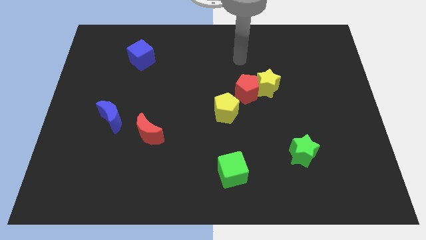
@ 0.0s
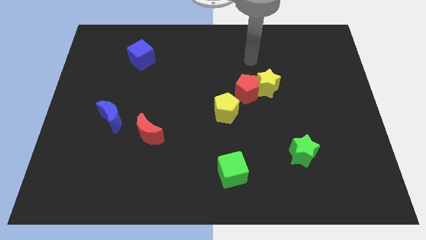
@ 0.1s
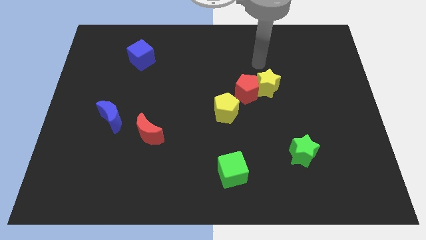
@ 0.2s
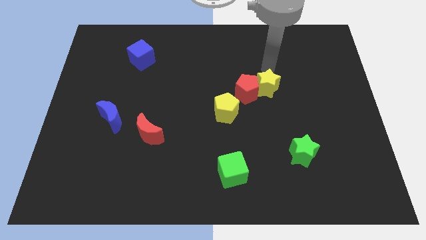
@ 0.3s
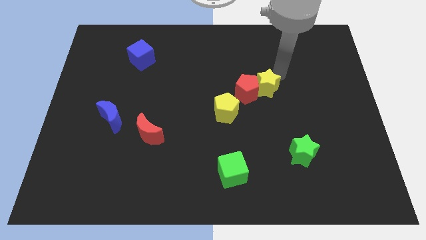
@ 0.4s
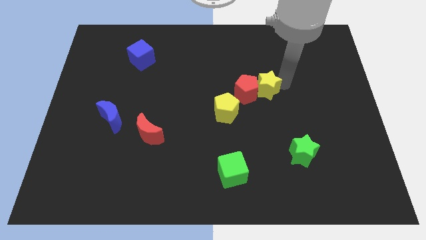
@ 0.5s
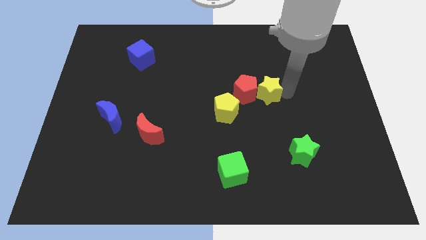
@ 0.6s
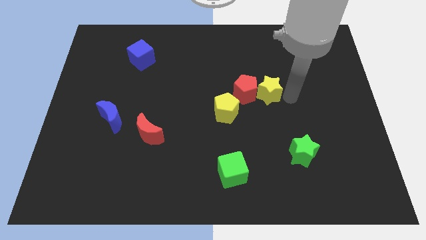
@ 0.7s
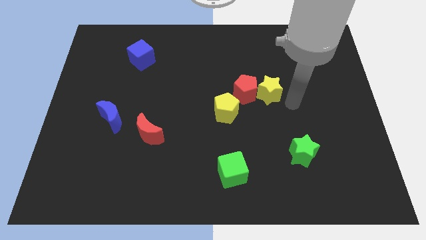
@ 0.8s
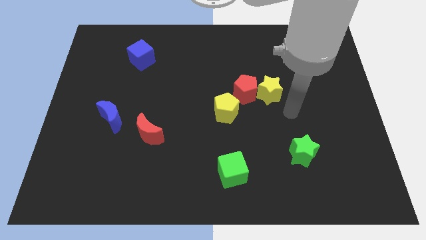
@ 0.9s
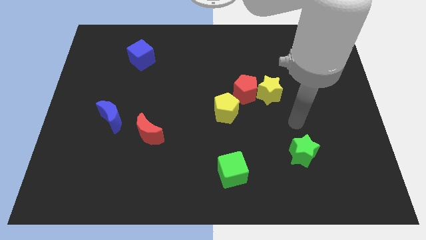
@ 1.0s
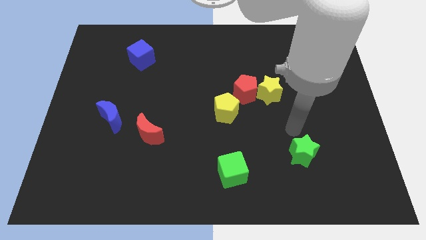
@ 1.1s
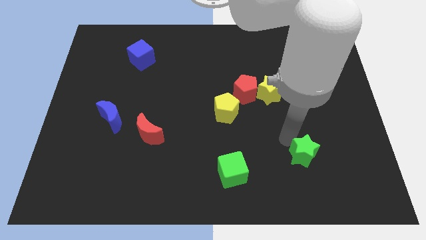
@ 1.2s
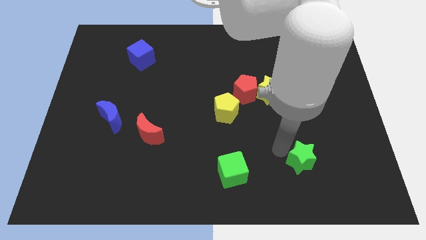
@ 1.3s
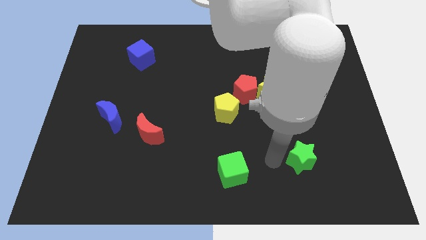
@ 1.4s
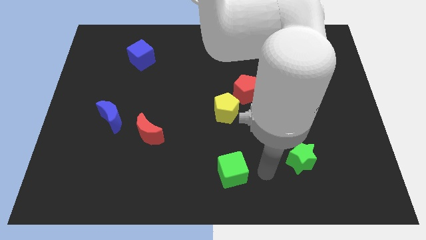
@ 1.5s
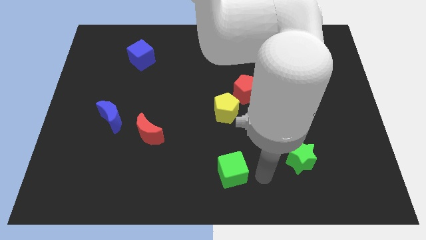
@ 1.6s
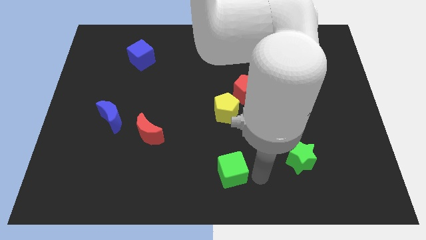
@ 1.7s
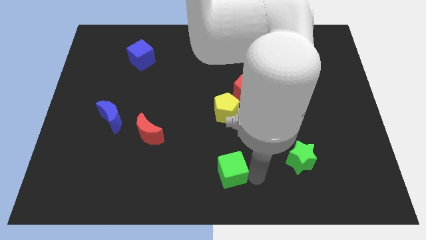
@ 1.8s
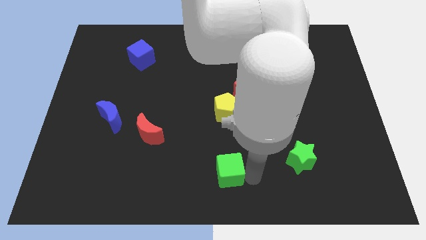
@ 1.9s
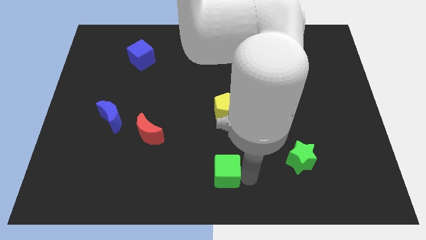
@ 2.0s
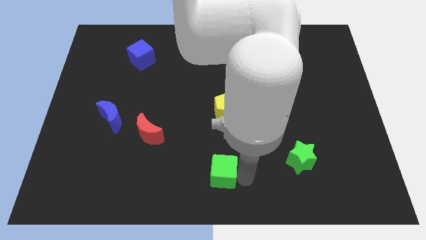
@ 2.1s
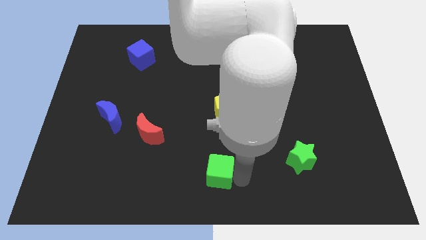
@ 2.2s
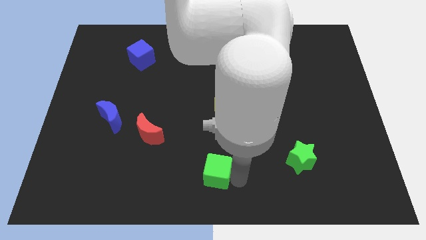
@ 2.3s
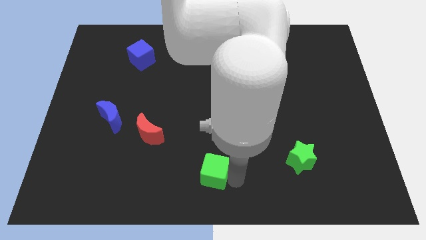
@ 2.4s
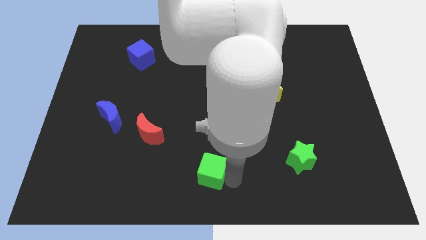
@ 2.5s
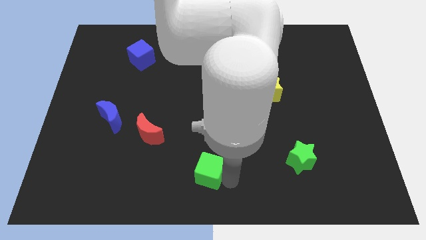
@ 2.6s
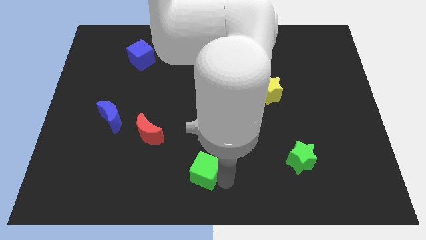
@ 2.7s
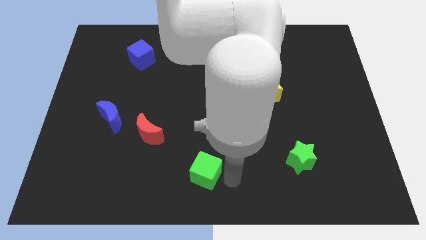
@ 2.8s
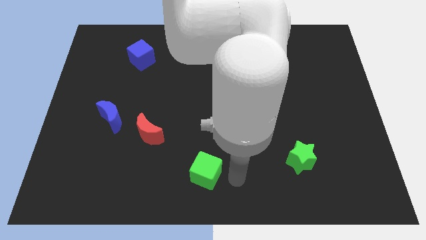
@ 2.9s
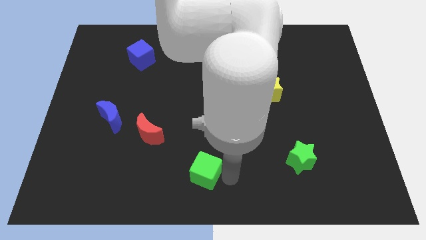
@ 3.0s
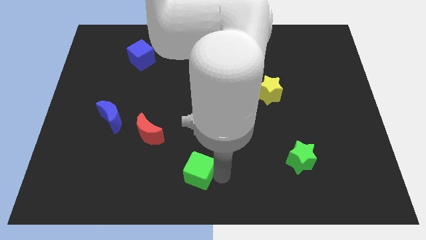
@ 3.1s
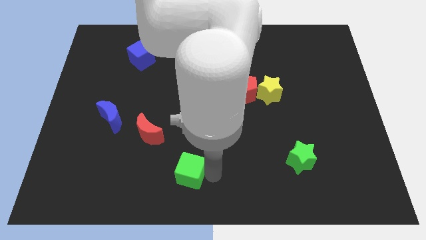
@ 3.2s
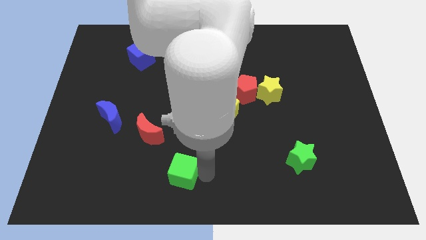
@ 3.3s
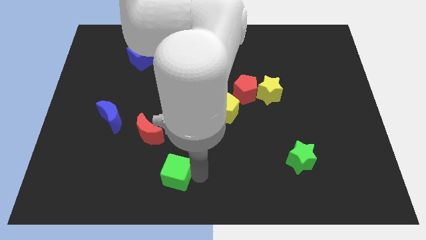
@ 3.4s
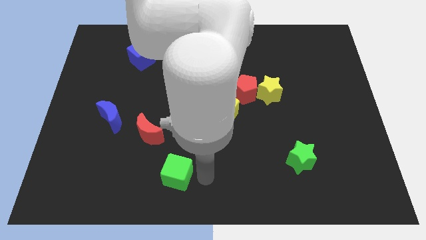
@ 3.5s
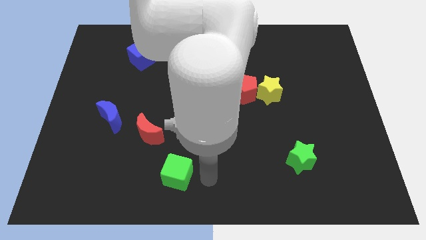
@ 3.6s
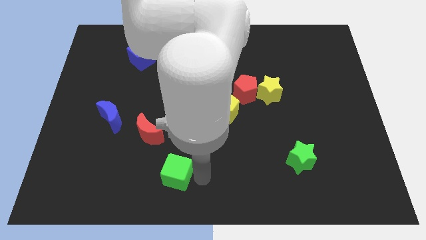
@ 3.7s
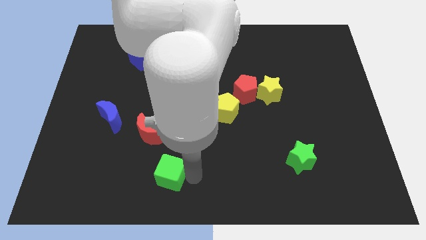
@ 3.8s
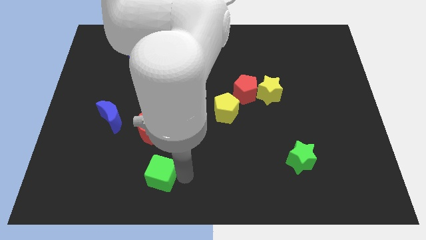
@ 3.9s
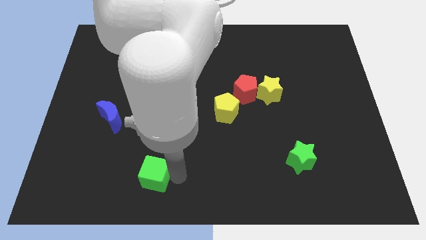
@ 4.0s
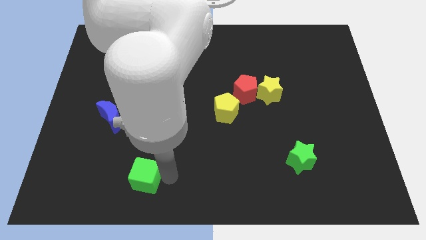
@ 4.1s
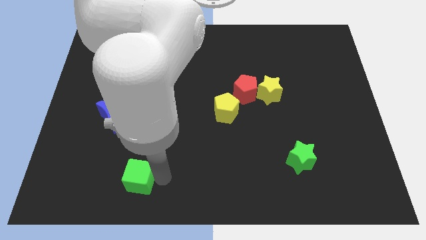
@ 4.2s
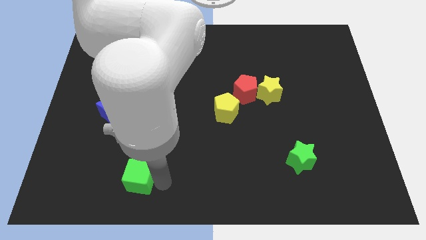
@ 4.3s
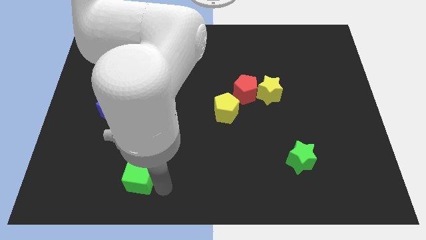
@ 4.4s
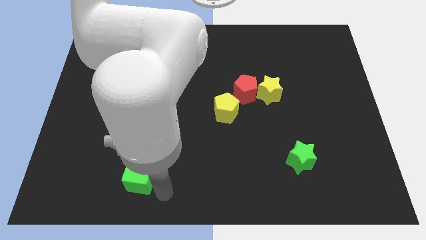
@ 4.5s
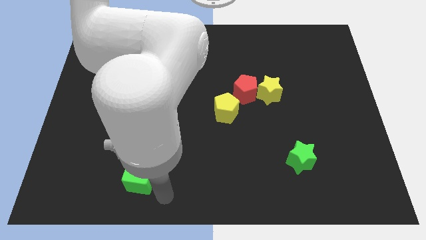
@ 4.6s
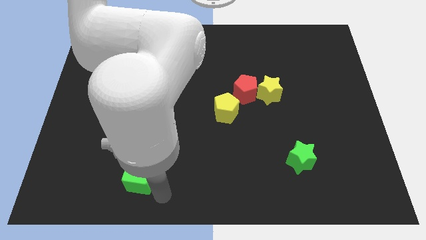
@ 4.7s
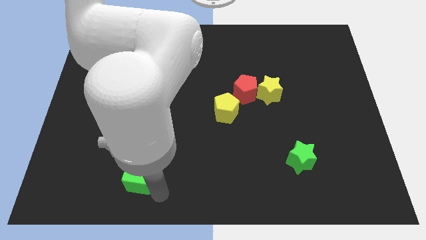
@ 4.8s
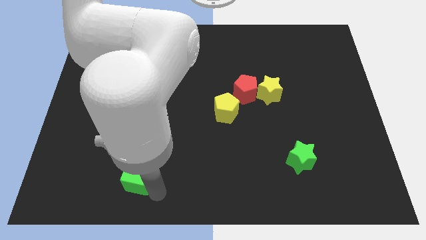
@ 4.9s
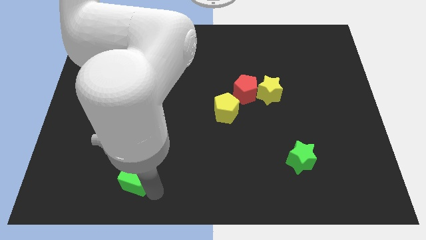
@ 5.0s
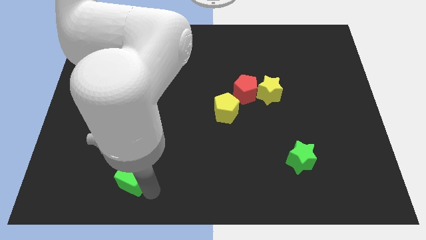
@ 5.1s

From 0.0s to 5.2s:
move the green cube to the left

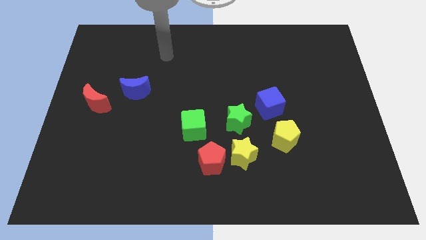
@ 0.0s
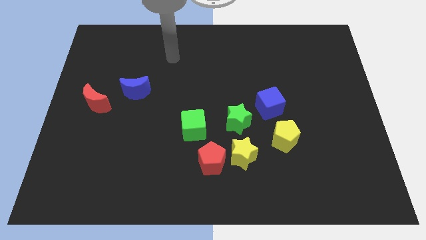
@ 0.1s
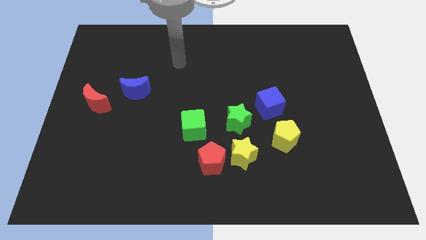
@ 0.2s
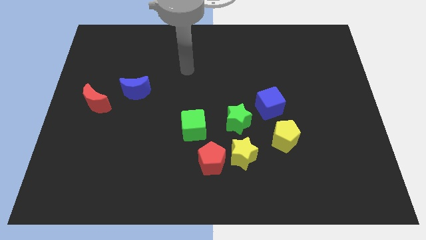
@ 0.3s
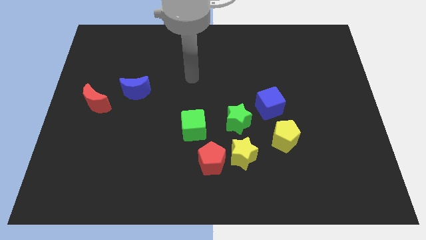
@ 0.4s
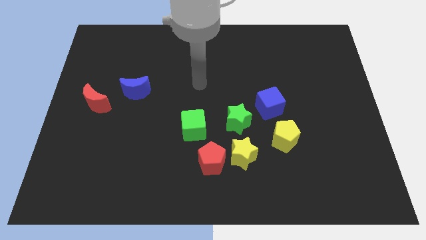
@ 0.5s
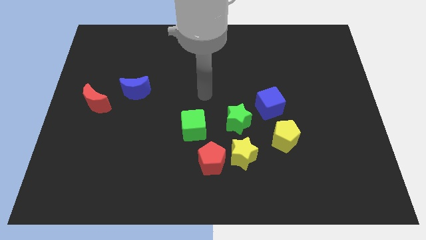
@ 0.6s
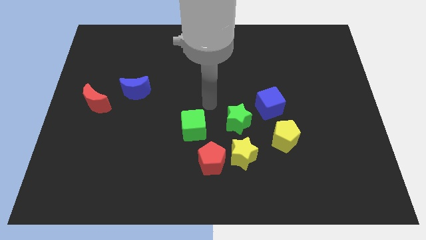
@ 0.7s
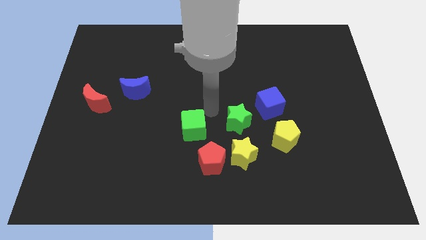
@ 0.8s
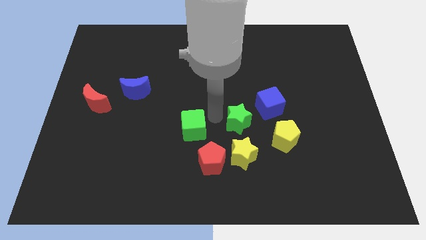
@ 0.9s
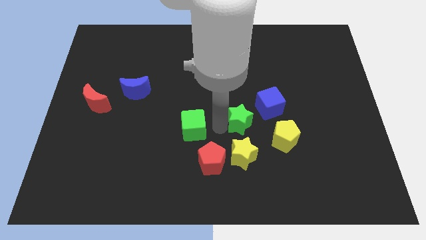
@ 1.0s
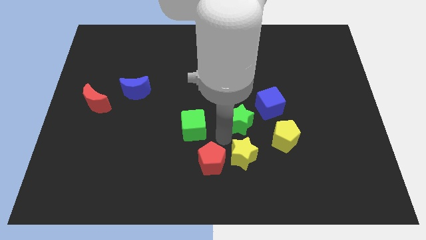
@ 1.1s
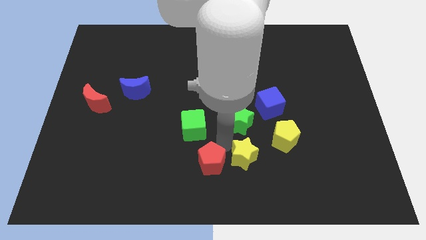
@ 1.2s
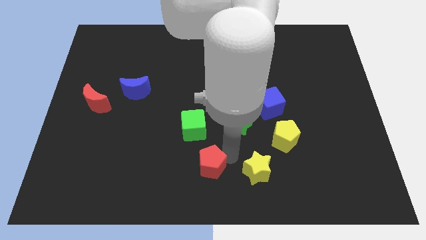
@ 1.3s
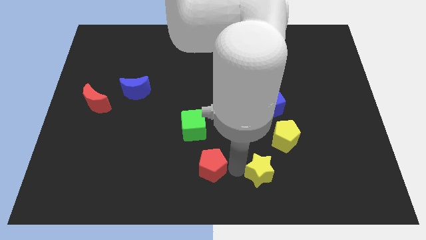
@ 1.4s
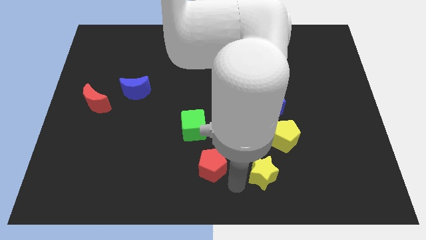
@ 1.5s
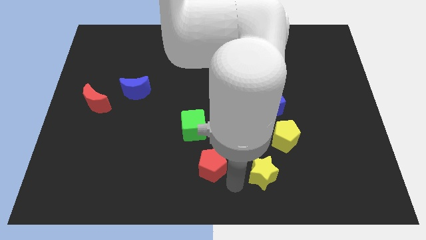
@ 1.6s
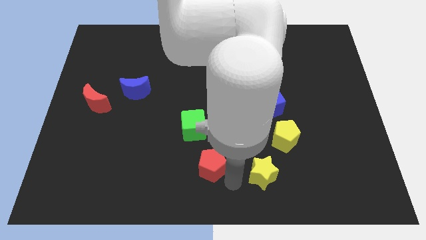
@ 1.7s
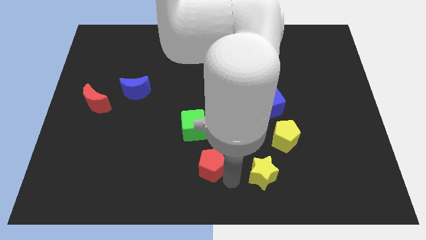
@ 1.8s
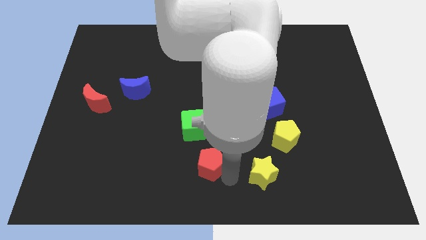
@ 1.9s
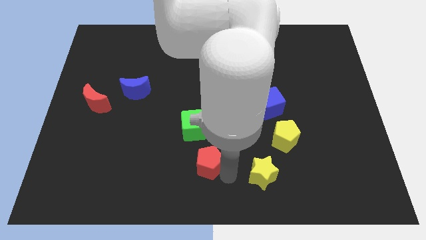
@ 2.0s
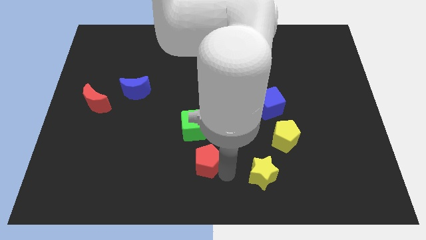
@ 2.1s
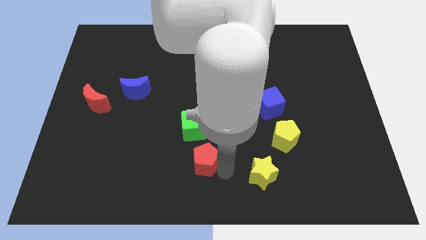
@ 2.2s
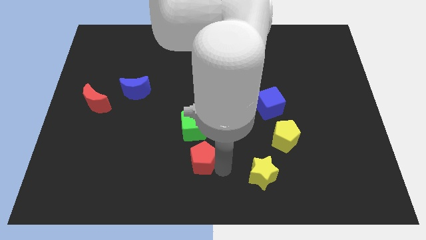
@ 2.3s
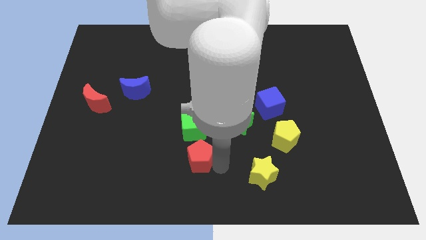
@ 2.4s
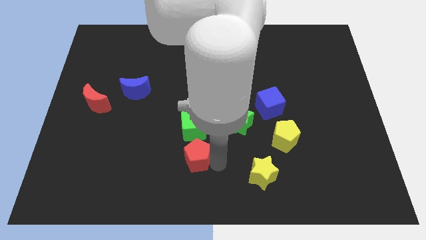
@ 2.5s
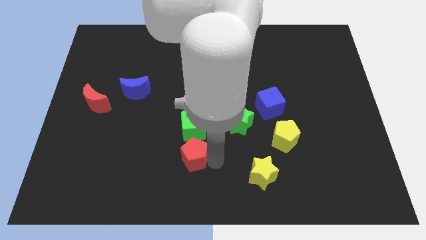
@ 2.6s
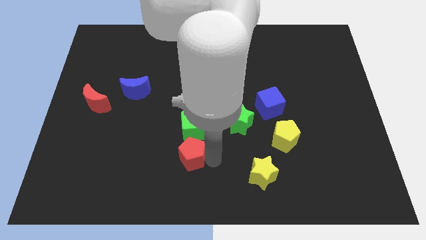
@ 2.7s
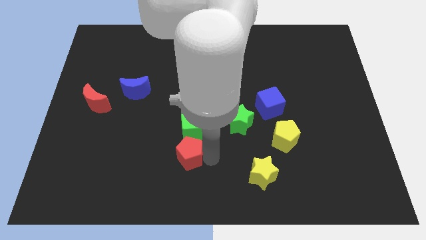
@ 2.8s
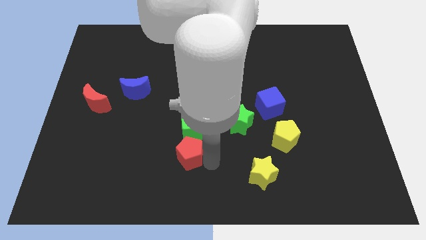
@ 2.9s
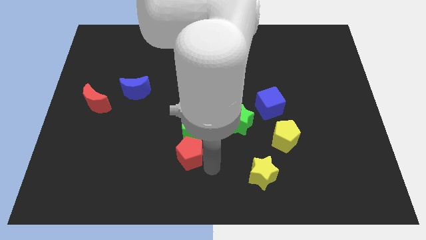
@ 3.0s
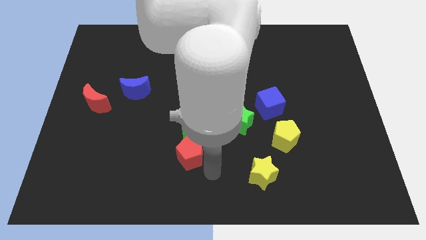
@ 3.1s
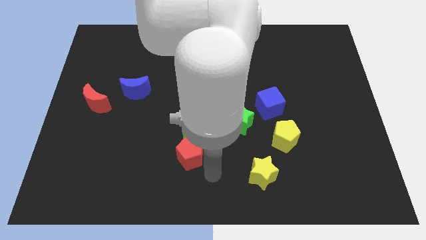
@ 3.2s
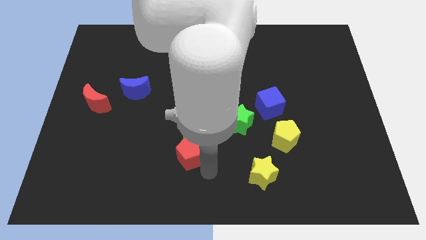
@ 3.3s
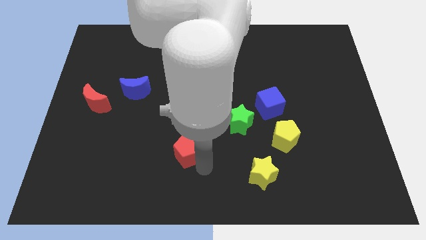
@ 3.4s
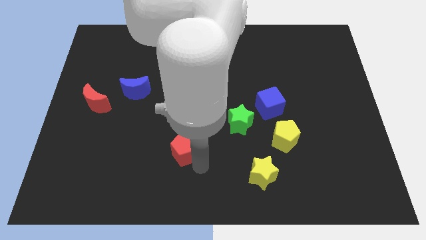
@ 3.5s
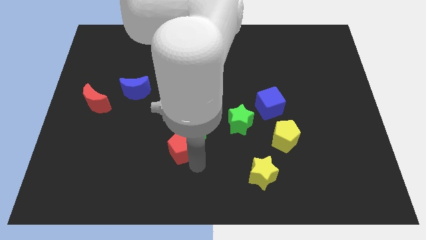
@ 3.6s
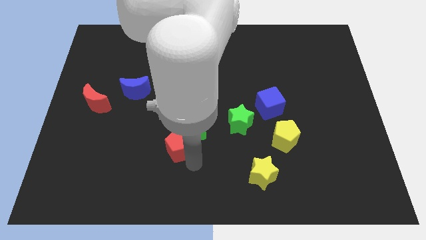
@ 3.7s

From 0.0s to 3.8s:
slightly slide the red pentagon upwards and then to the left
